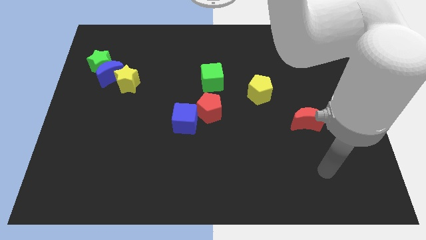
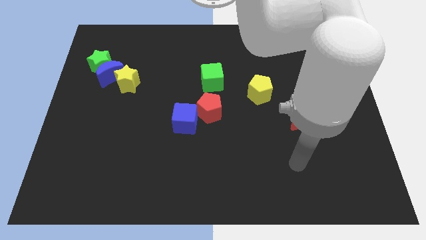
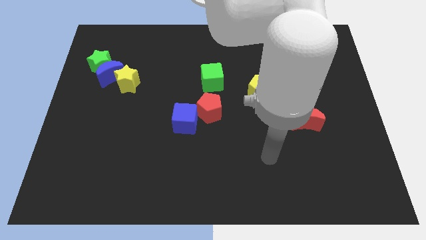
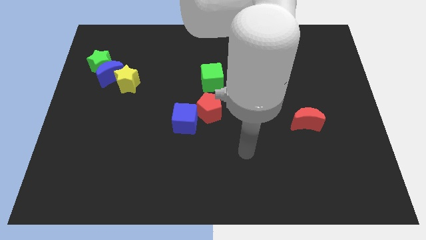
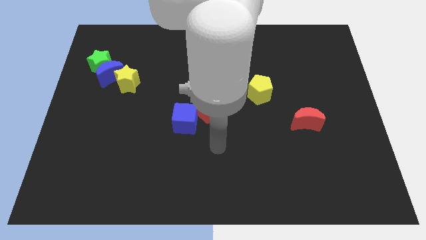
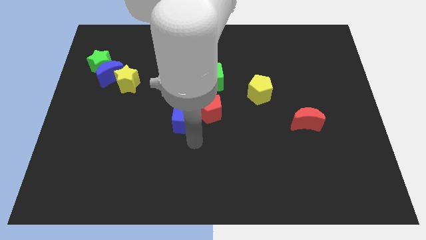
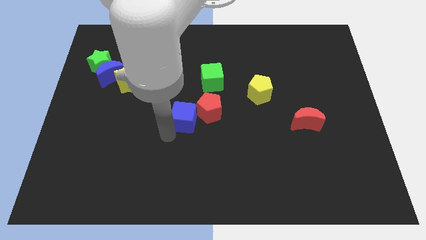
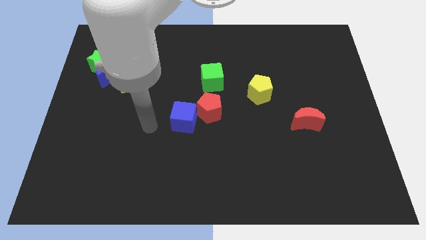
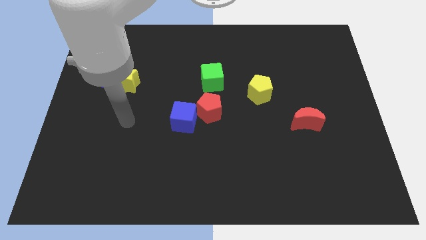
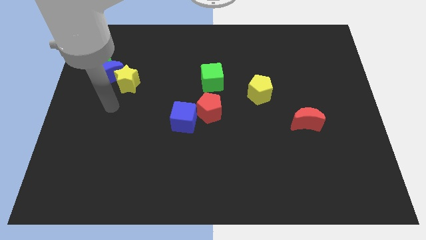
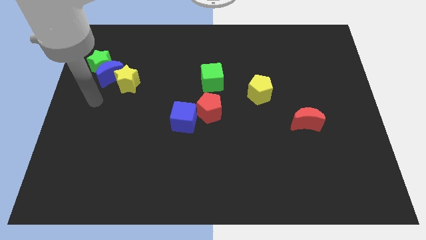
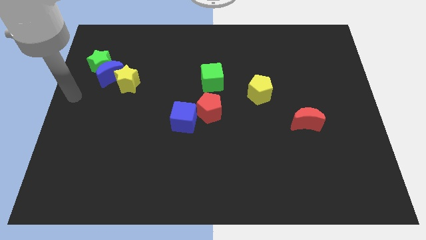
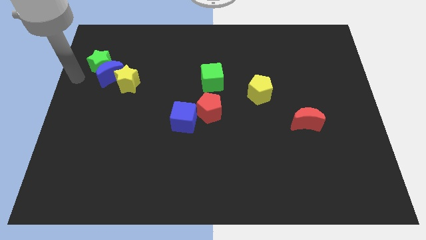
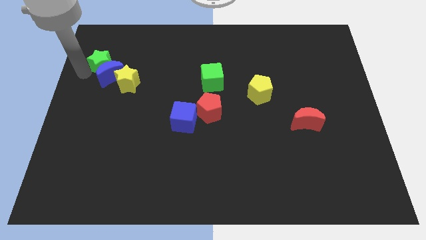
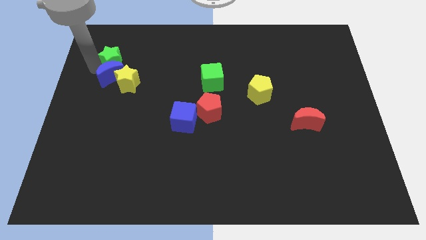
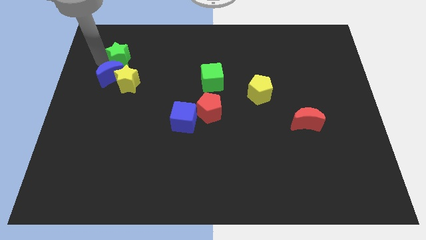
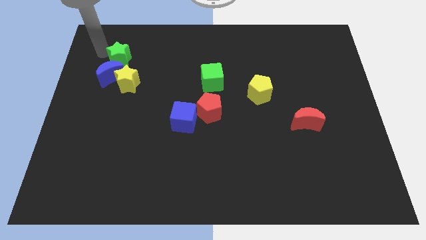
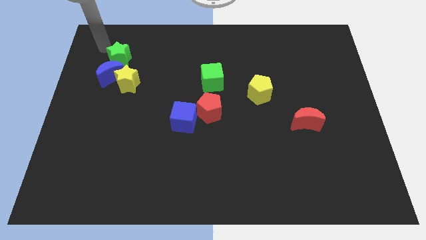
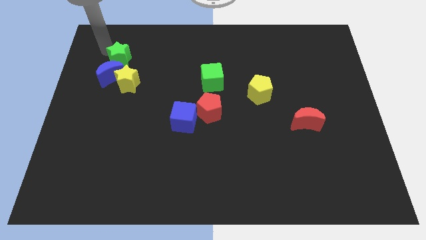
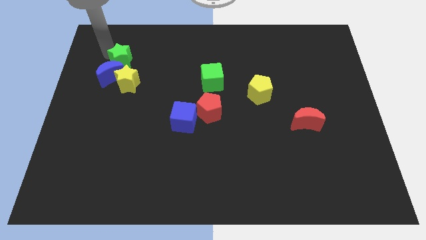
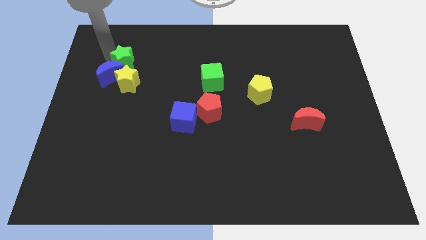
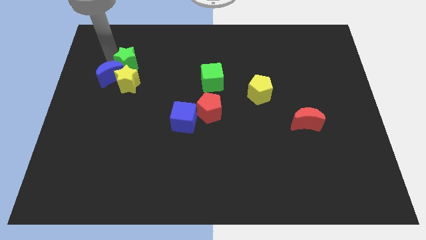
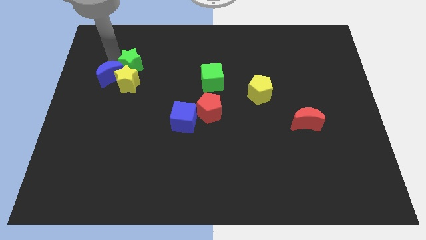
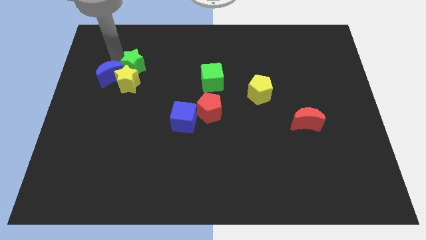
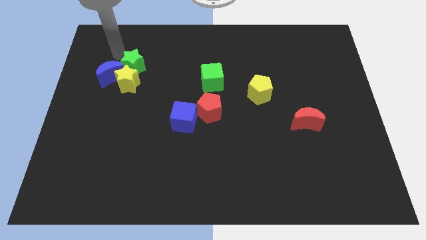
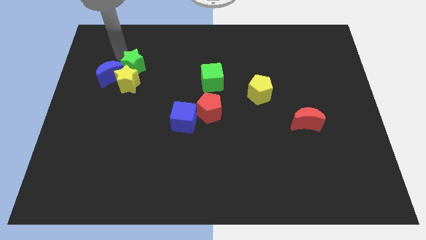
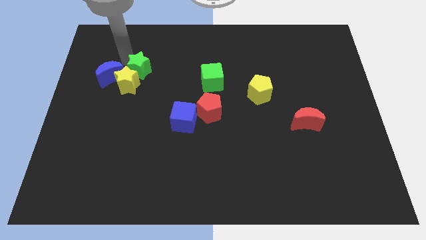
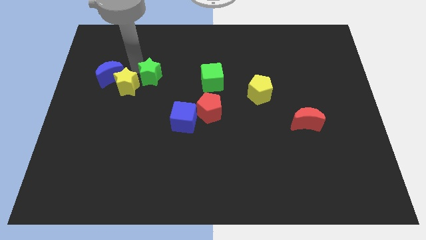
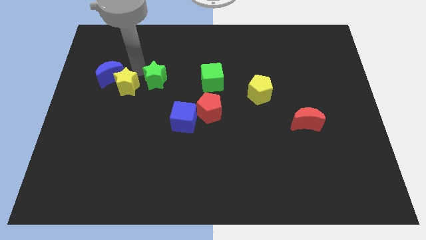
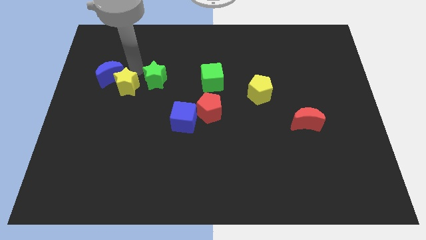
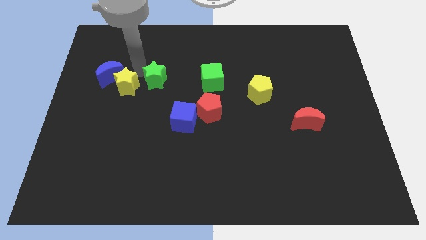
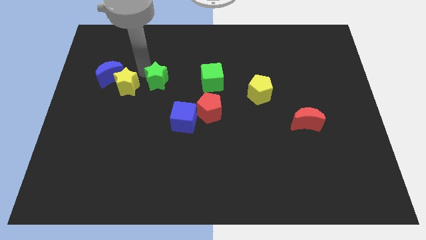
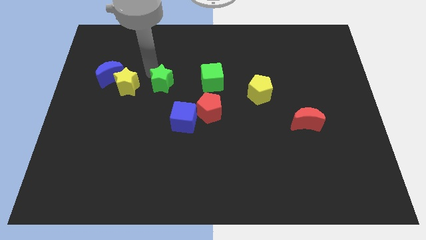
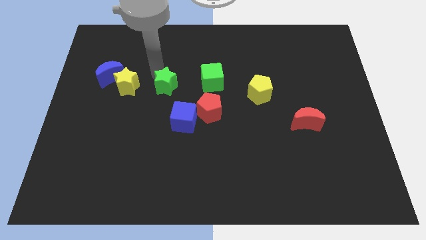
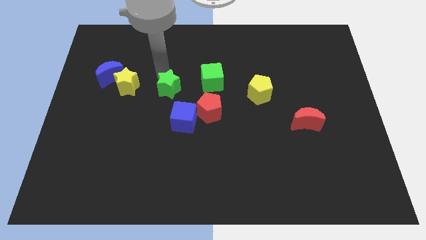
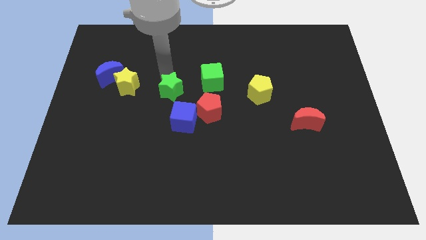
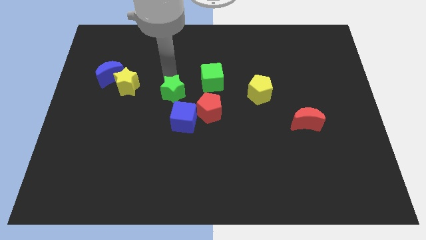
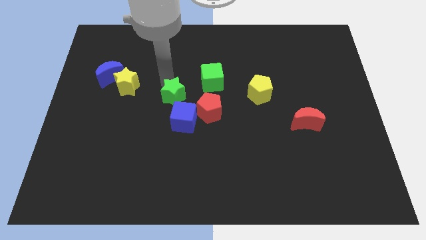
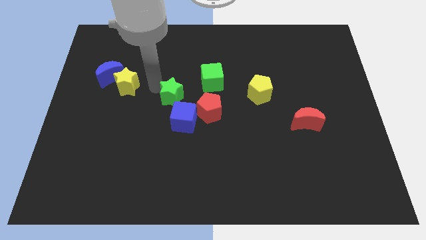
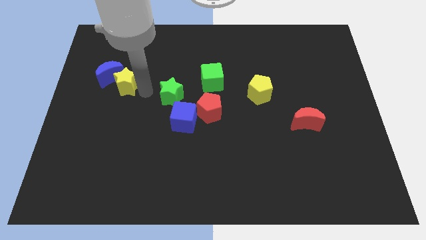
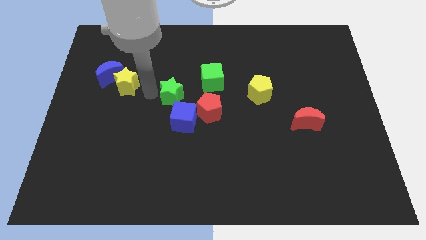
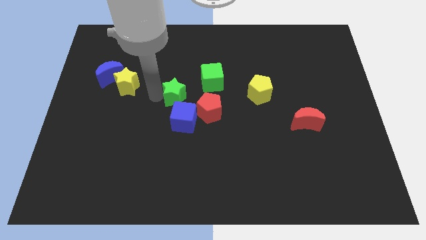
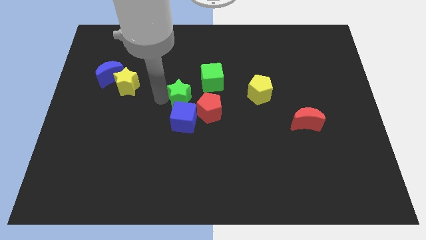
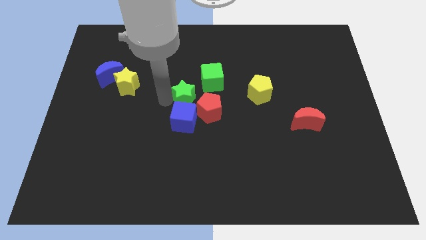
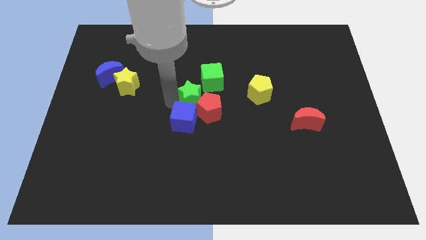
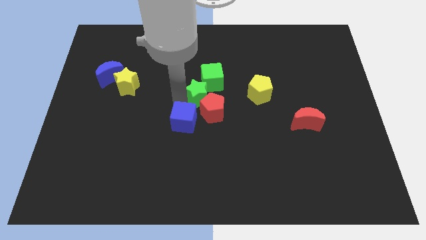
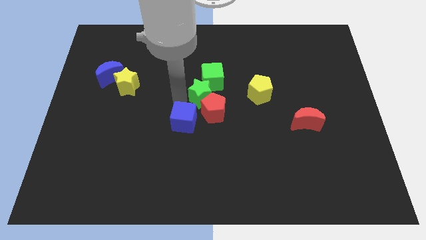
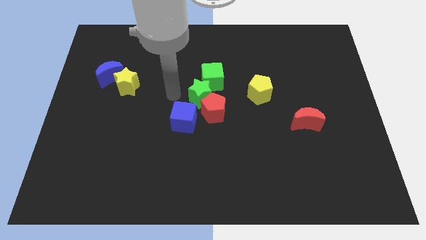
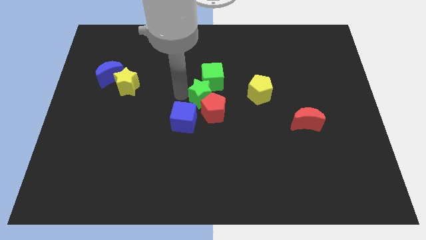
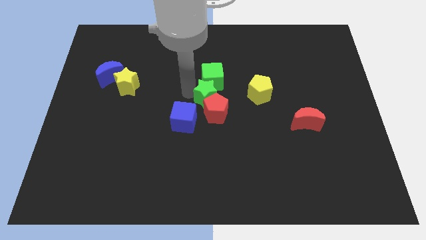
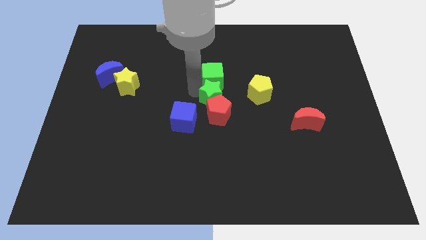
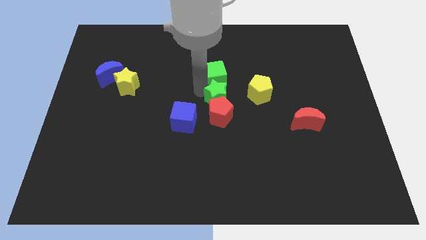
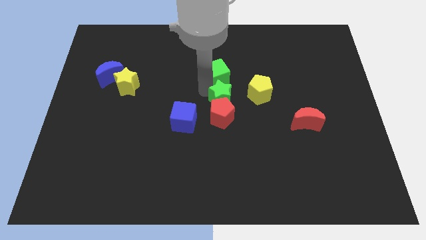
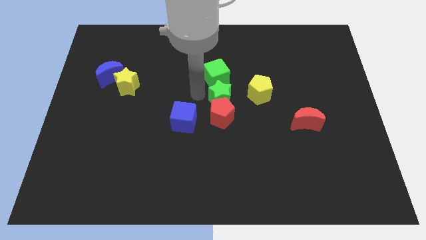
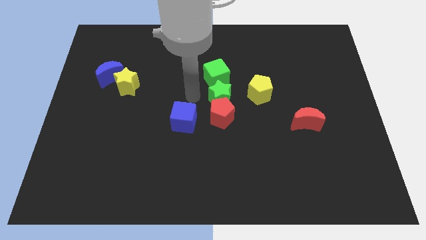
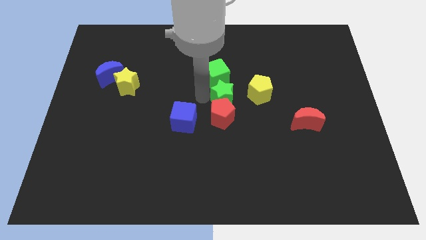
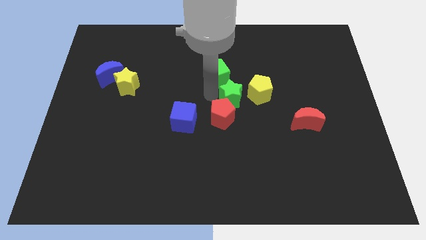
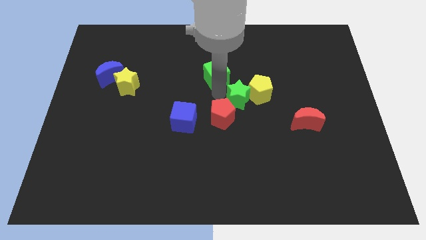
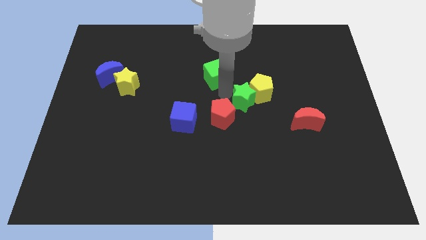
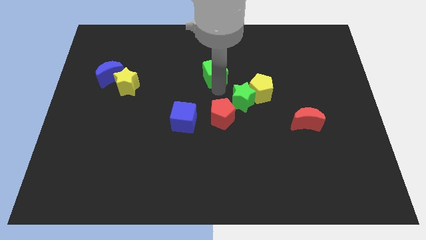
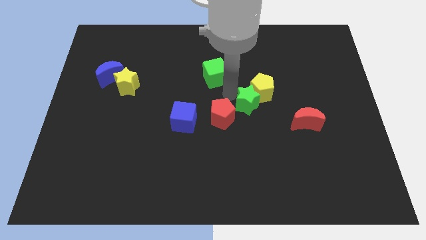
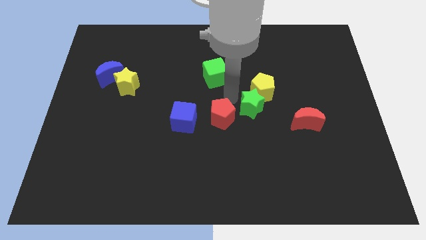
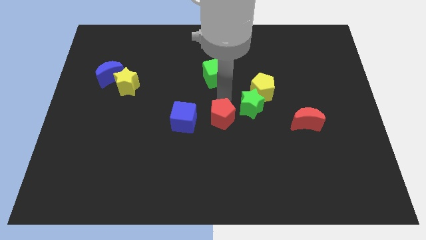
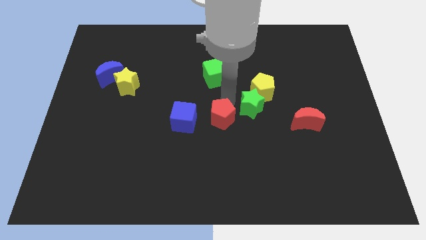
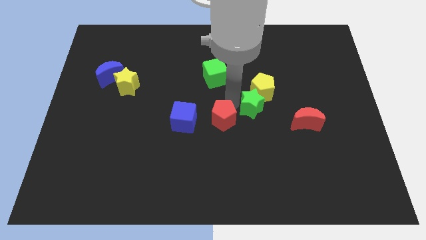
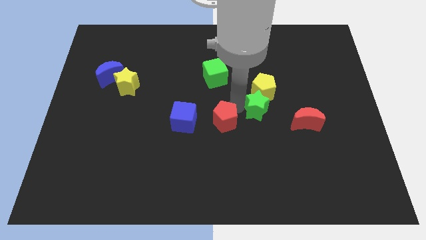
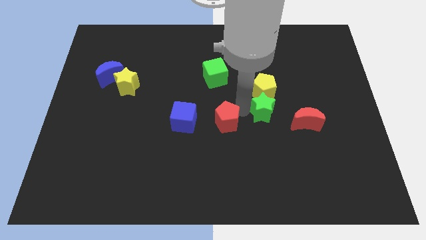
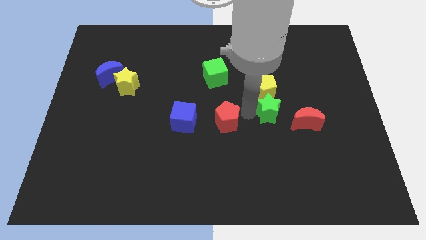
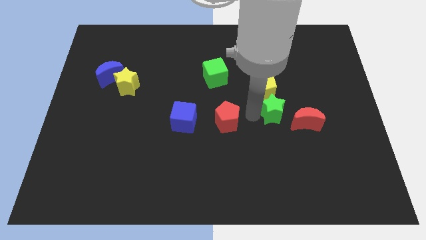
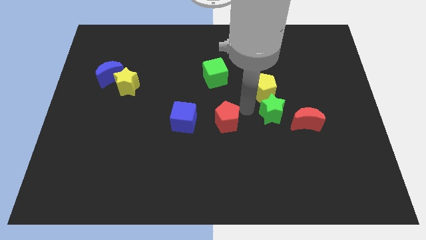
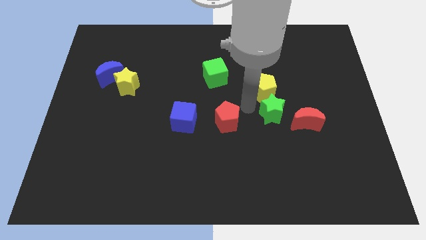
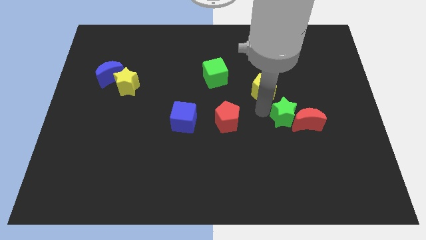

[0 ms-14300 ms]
put the green star close to the red moon
